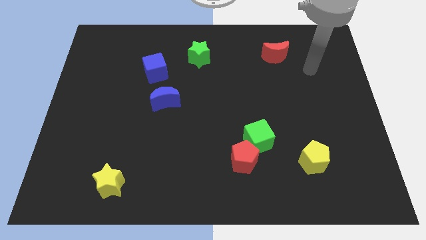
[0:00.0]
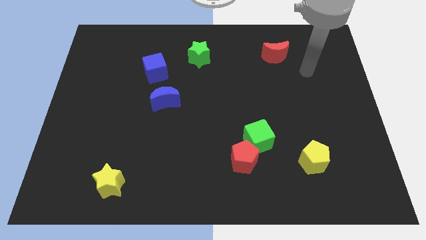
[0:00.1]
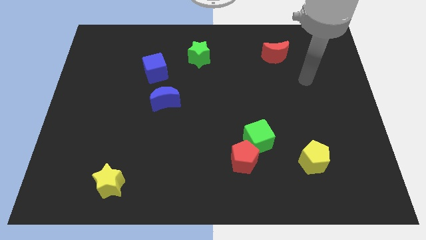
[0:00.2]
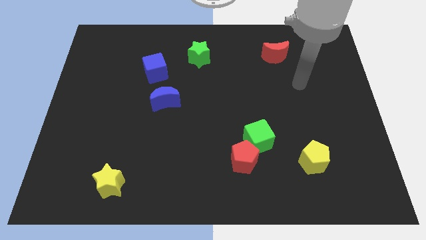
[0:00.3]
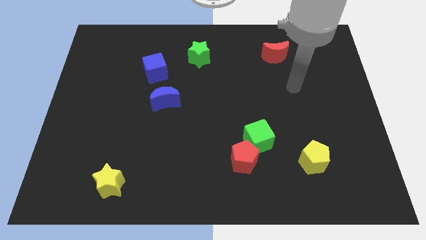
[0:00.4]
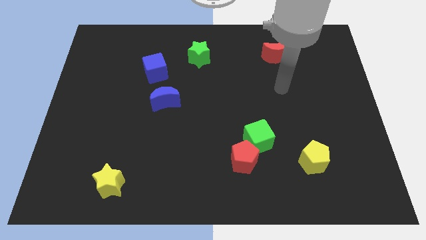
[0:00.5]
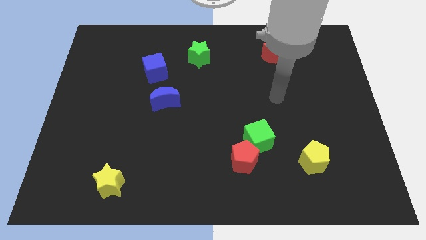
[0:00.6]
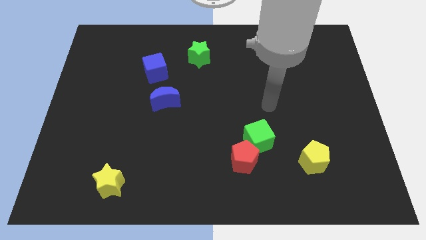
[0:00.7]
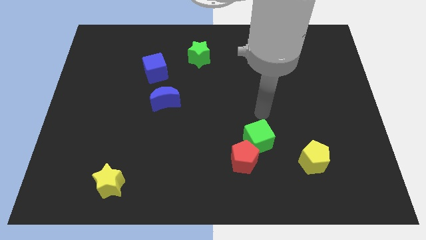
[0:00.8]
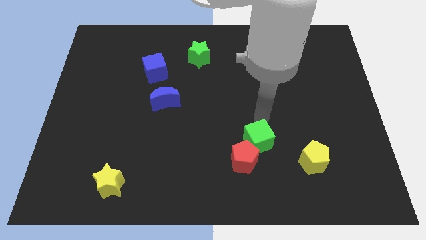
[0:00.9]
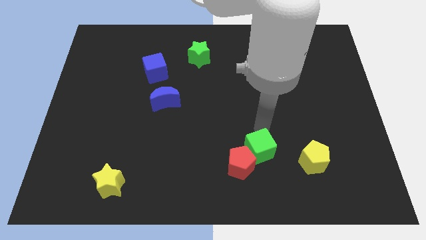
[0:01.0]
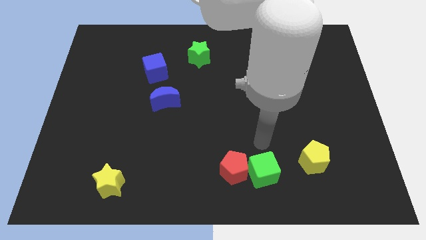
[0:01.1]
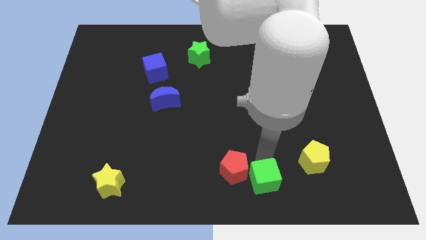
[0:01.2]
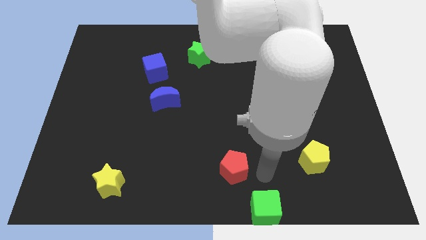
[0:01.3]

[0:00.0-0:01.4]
move the red pentagon away from the green cube

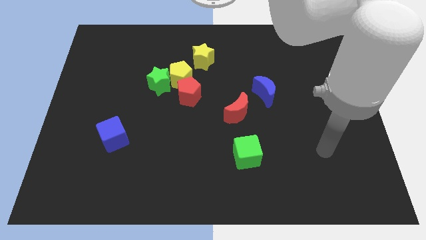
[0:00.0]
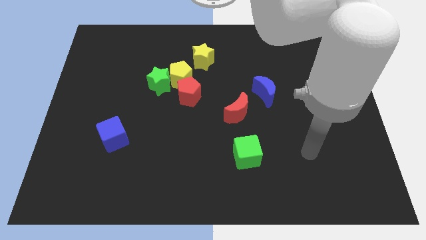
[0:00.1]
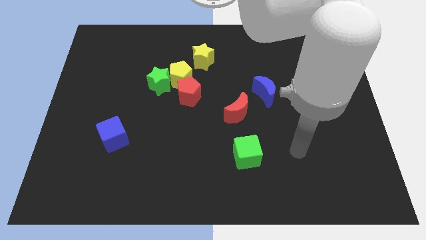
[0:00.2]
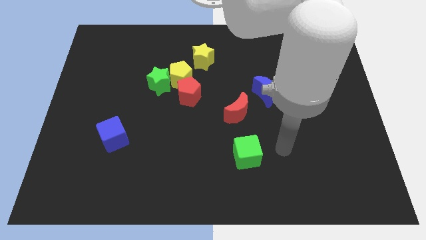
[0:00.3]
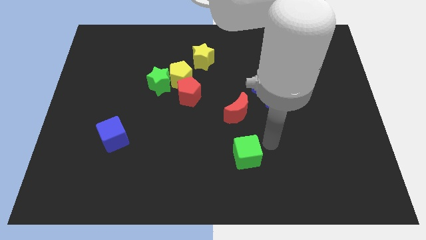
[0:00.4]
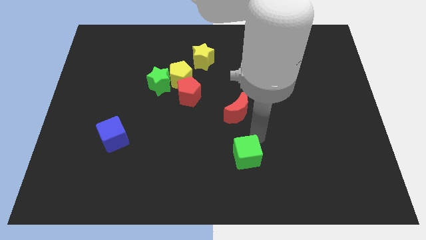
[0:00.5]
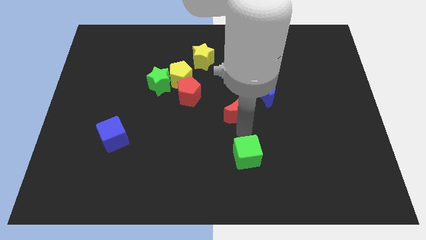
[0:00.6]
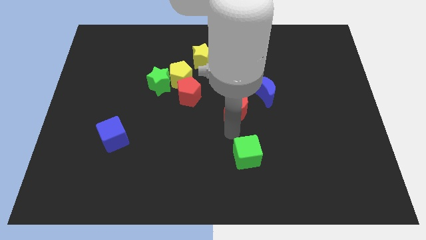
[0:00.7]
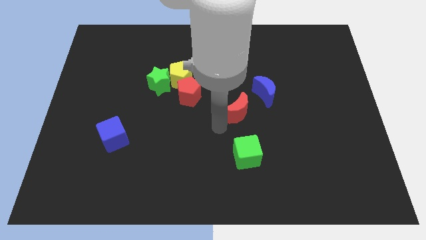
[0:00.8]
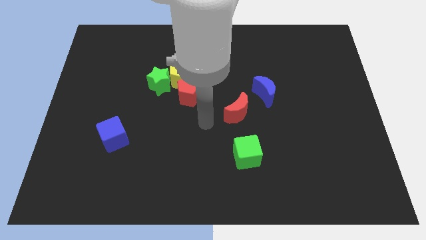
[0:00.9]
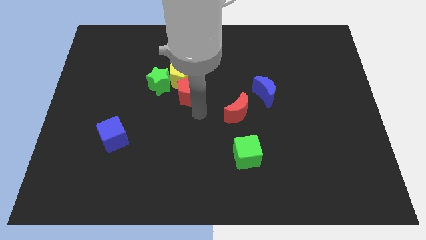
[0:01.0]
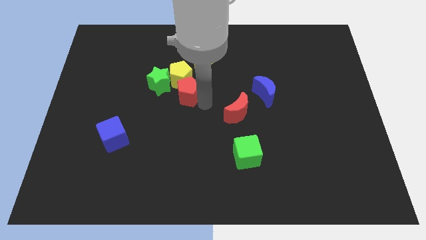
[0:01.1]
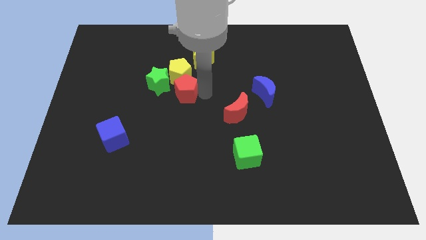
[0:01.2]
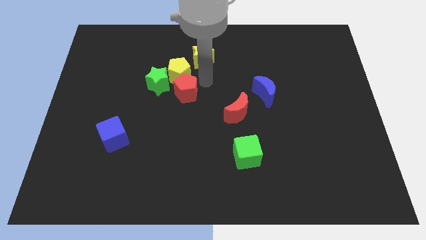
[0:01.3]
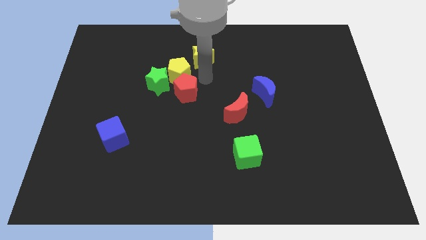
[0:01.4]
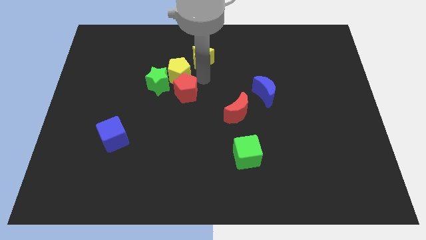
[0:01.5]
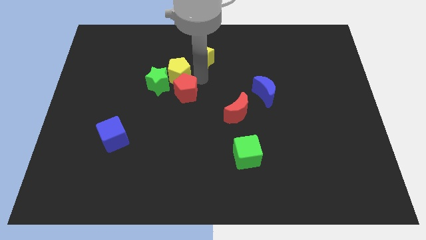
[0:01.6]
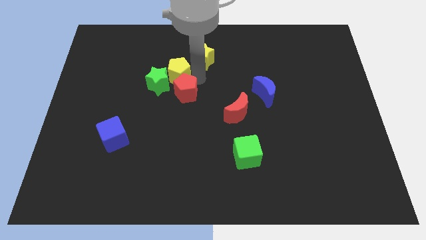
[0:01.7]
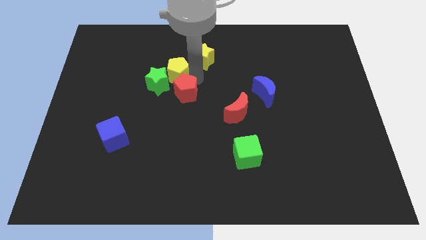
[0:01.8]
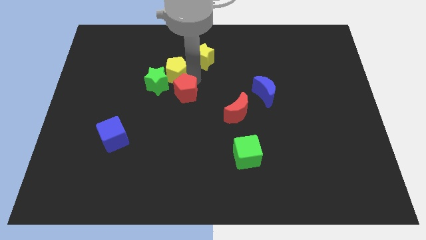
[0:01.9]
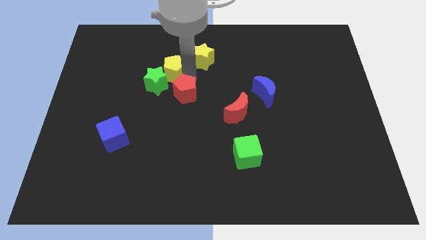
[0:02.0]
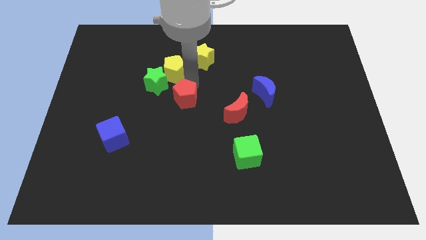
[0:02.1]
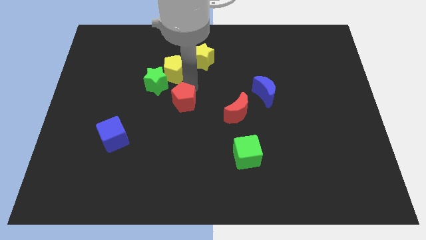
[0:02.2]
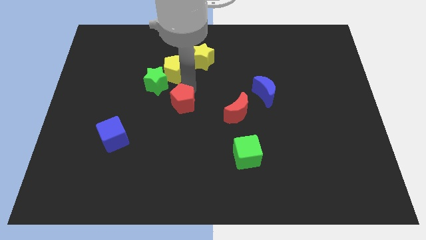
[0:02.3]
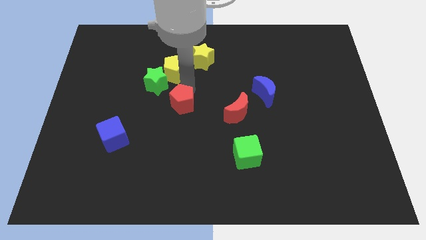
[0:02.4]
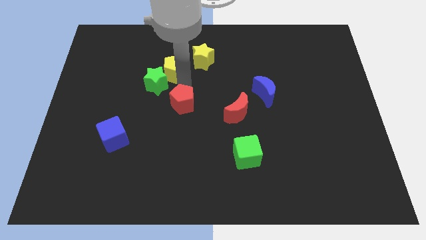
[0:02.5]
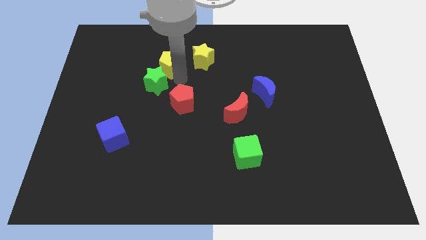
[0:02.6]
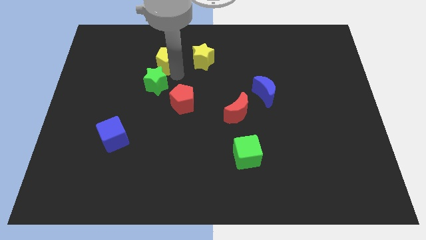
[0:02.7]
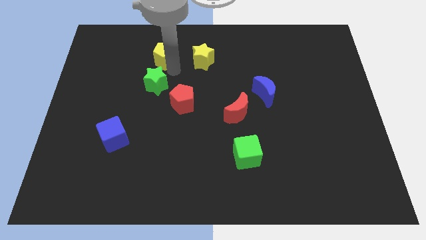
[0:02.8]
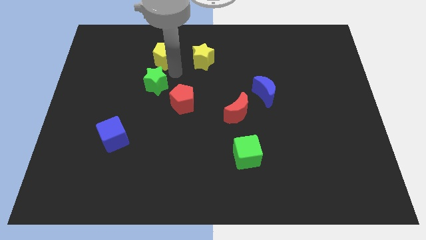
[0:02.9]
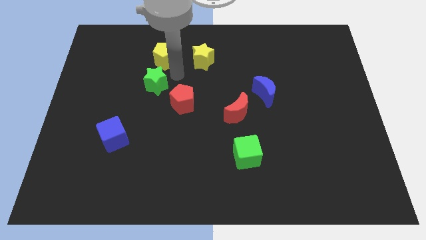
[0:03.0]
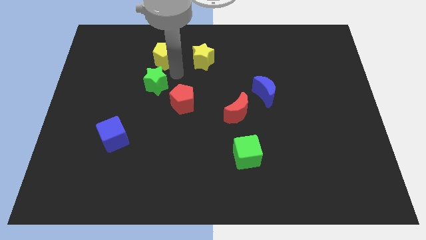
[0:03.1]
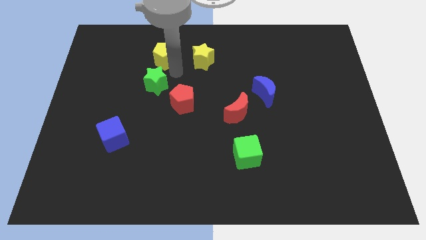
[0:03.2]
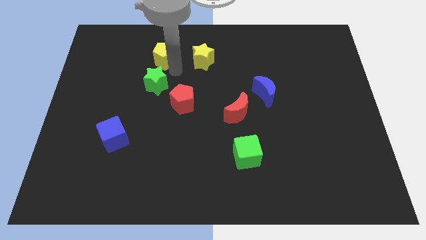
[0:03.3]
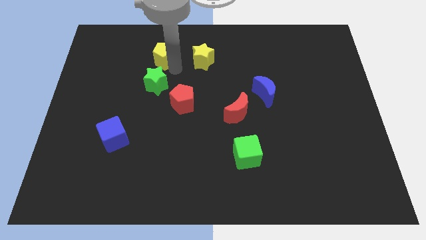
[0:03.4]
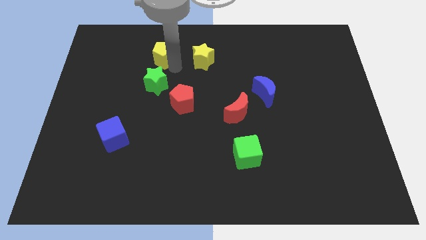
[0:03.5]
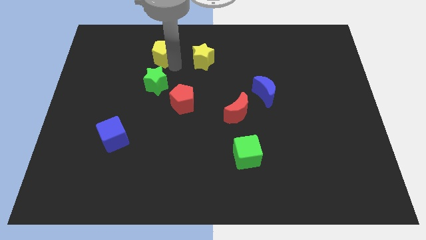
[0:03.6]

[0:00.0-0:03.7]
separate the yellow pentagon from the green star, red pentagon, and yellow star

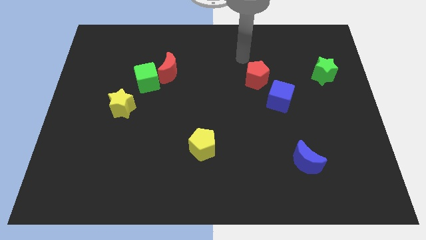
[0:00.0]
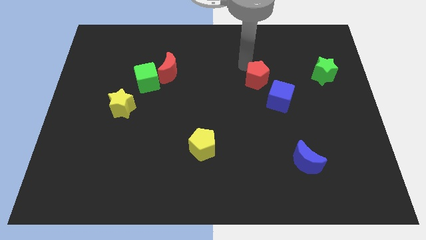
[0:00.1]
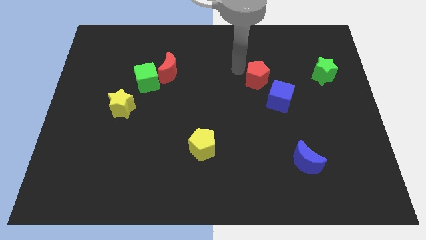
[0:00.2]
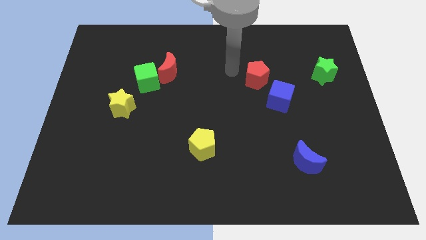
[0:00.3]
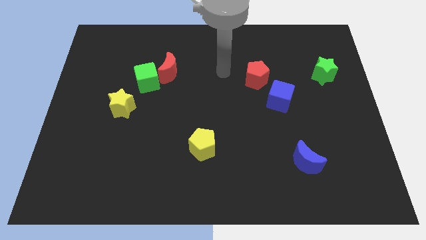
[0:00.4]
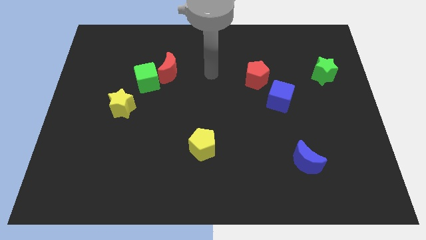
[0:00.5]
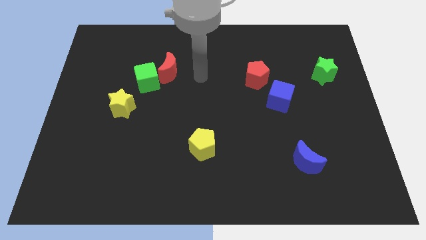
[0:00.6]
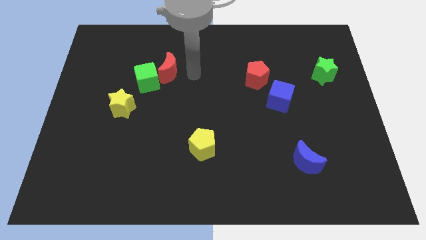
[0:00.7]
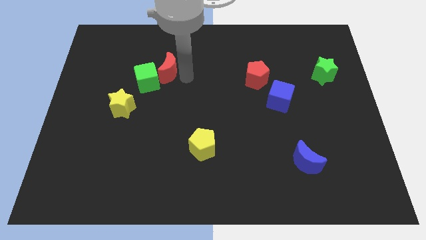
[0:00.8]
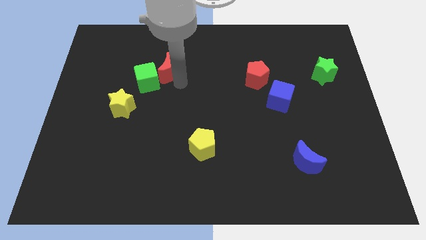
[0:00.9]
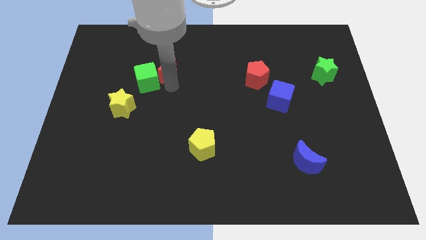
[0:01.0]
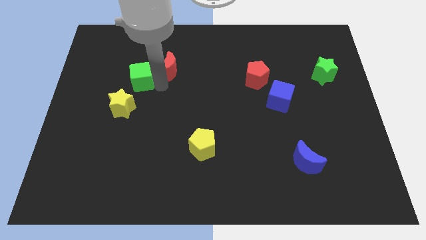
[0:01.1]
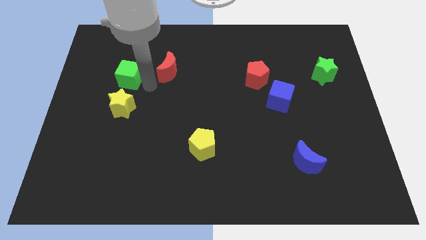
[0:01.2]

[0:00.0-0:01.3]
separate the red moon from the green cube

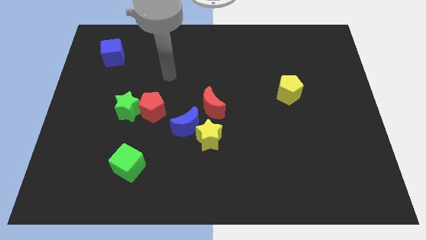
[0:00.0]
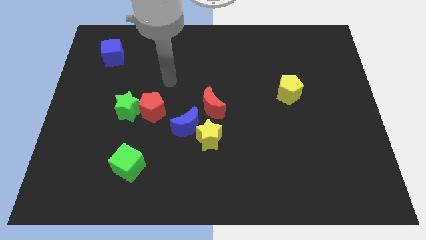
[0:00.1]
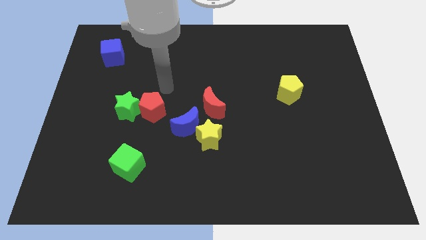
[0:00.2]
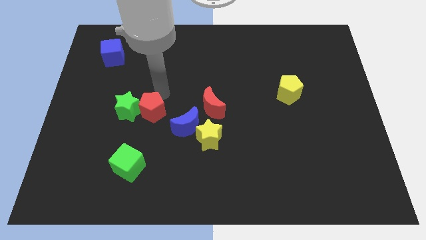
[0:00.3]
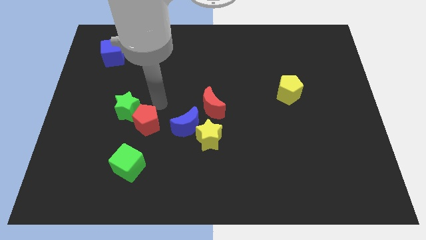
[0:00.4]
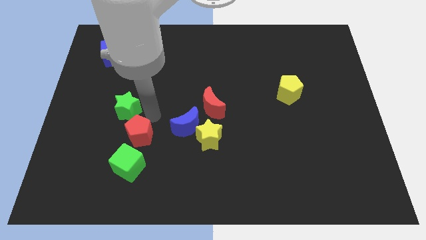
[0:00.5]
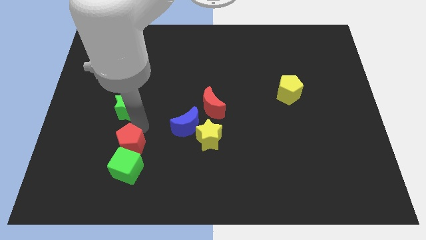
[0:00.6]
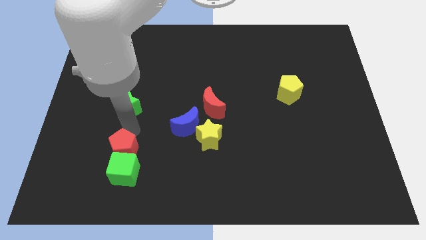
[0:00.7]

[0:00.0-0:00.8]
move the green star away from the red pentagon

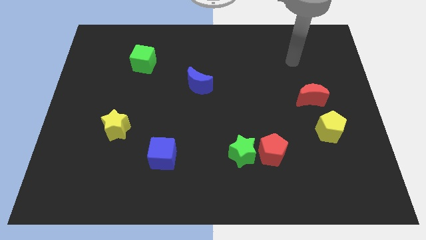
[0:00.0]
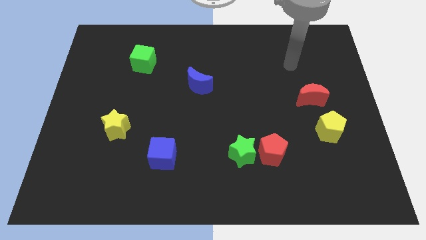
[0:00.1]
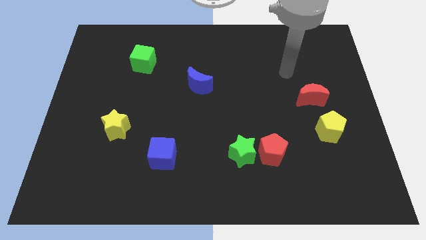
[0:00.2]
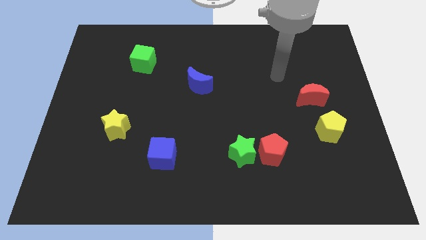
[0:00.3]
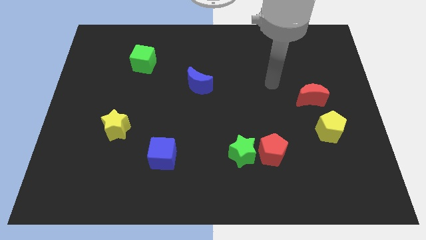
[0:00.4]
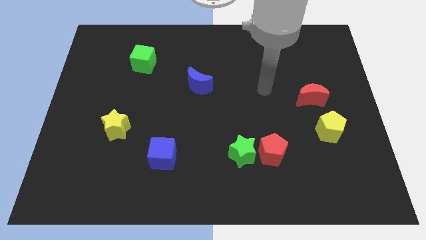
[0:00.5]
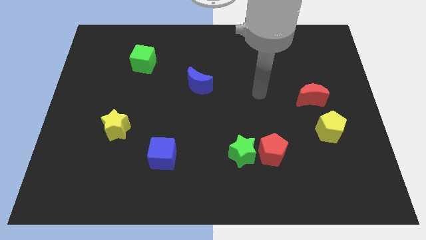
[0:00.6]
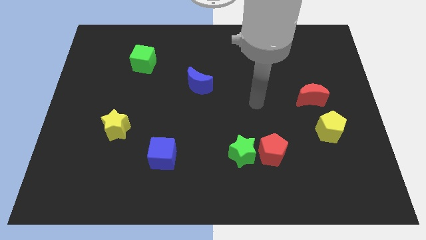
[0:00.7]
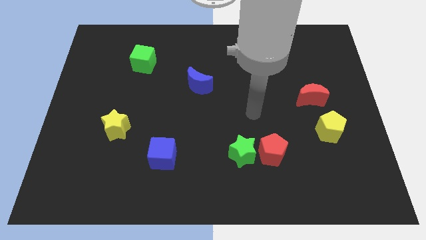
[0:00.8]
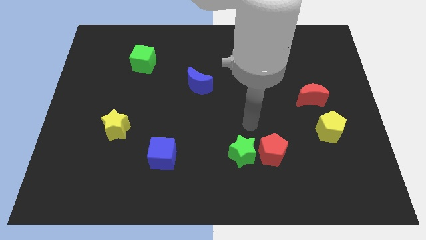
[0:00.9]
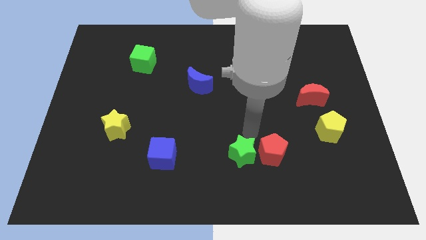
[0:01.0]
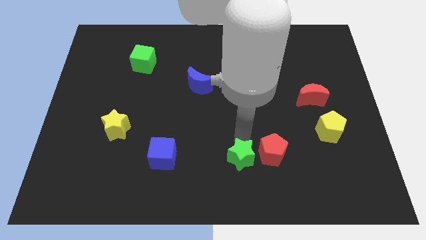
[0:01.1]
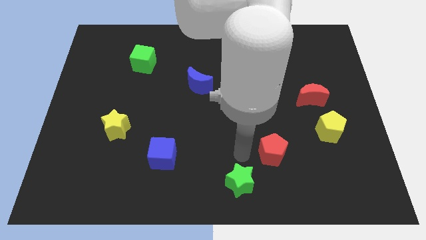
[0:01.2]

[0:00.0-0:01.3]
separate the red pentagon from the green star

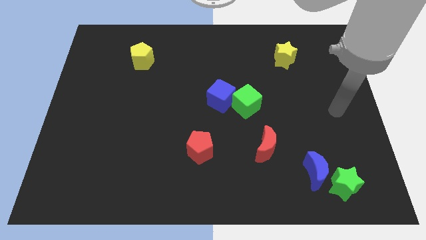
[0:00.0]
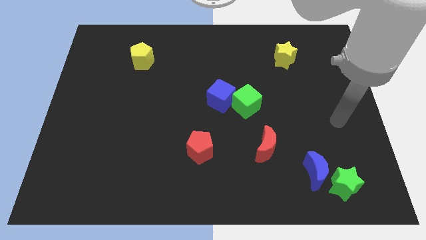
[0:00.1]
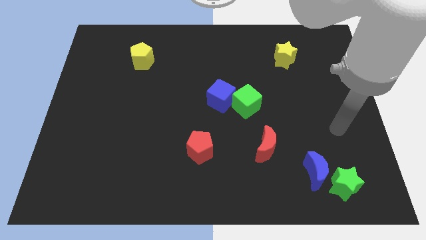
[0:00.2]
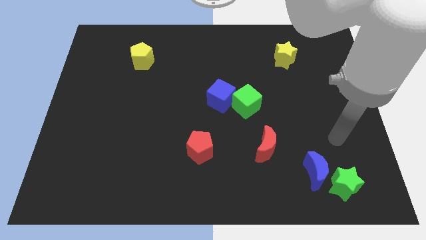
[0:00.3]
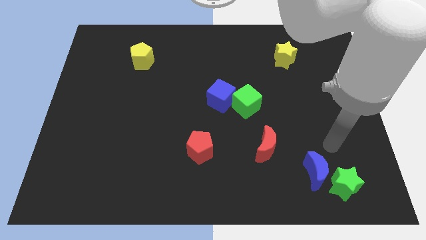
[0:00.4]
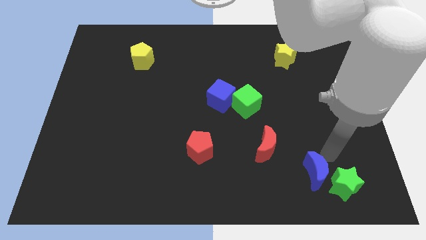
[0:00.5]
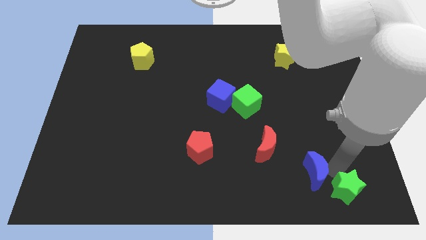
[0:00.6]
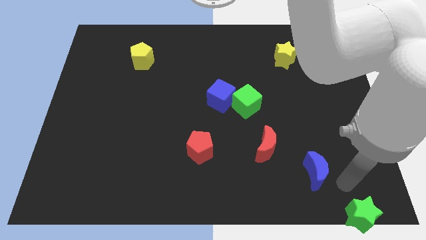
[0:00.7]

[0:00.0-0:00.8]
separate the blue moon from the green star
